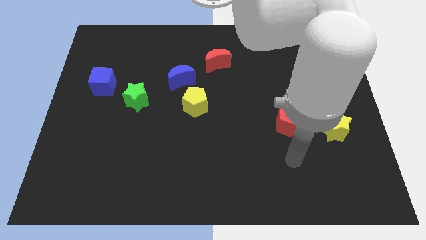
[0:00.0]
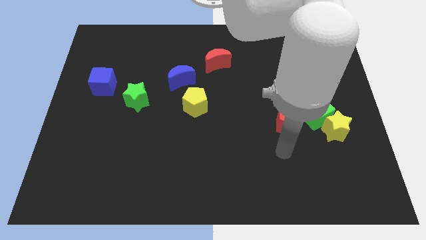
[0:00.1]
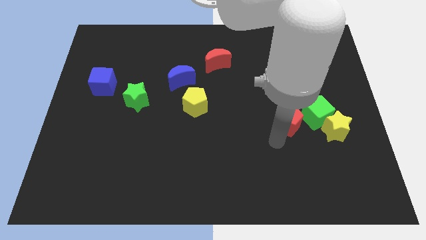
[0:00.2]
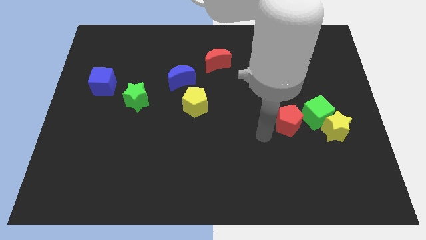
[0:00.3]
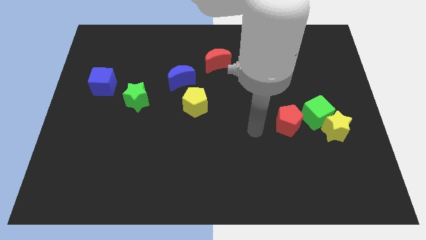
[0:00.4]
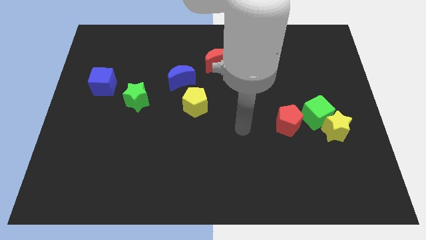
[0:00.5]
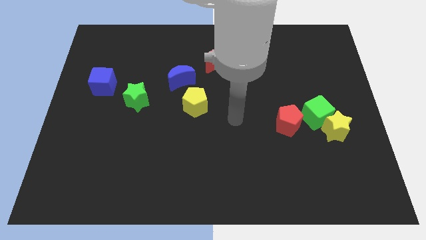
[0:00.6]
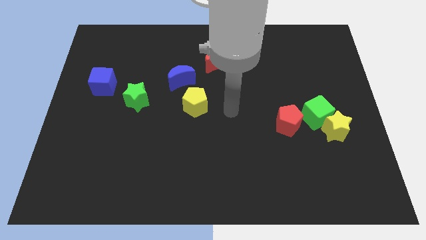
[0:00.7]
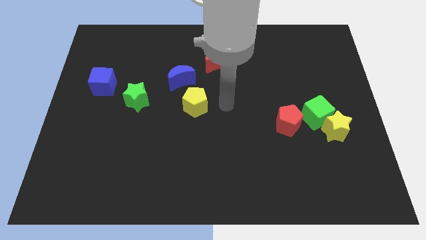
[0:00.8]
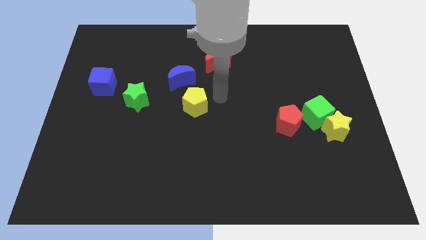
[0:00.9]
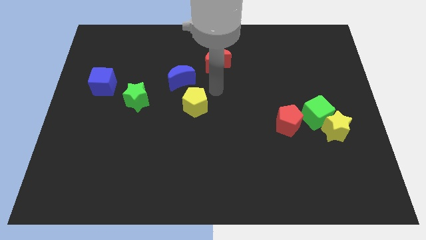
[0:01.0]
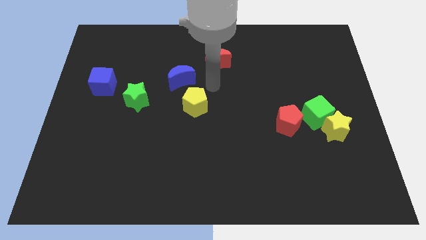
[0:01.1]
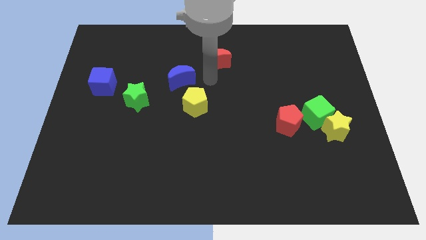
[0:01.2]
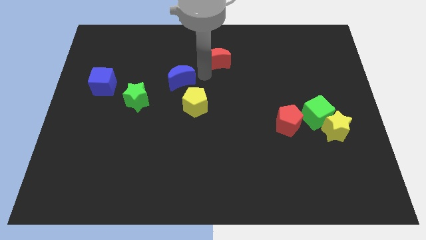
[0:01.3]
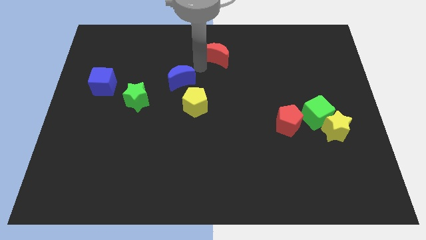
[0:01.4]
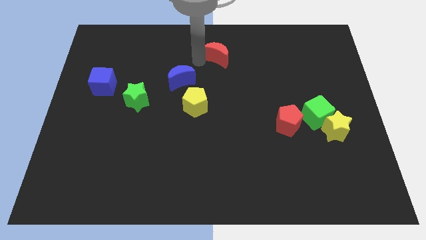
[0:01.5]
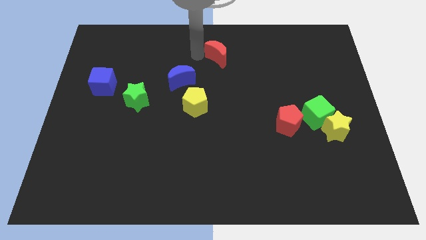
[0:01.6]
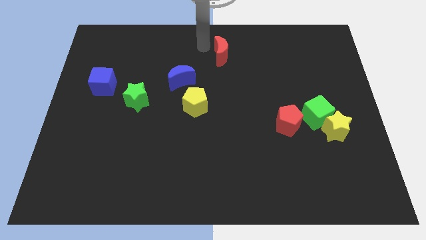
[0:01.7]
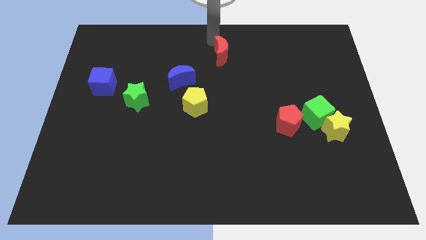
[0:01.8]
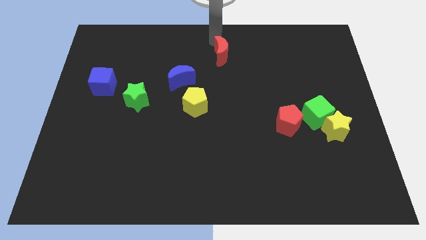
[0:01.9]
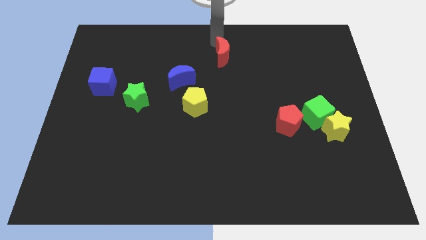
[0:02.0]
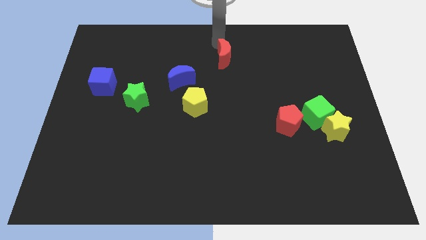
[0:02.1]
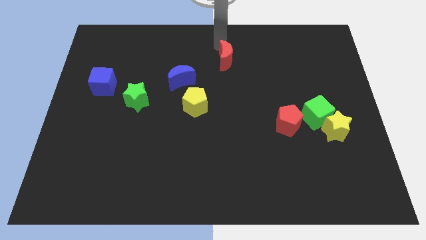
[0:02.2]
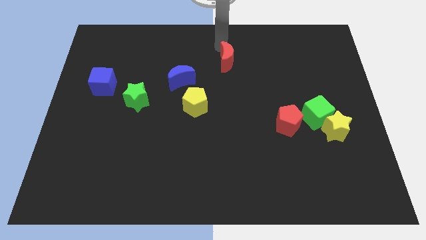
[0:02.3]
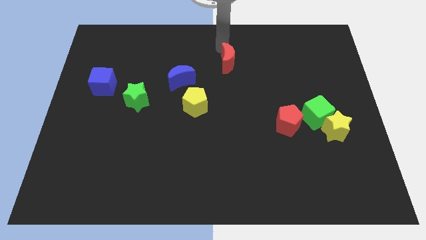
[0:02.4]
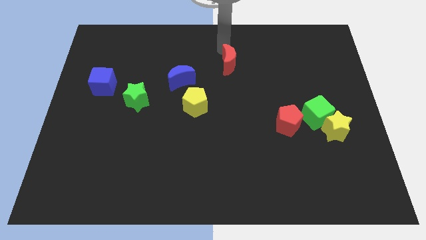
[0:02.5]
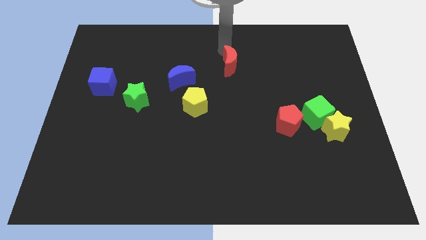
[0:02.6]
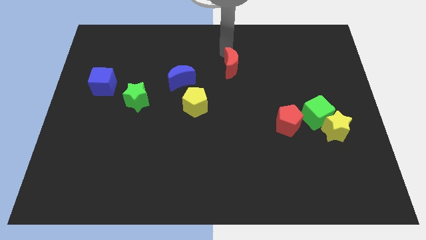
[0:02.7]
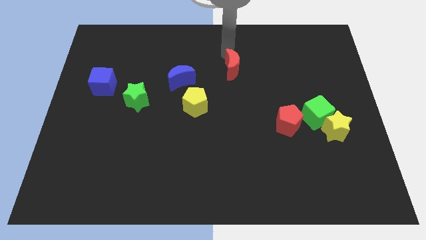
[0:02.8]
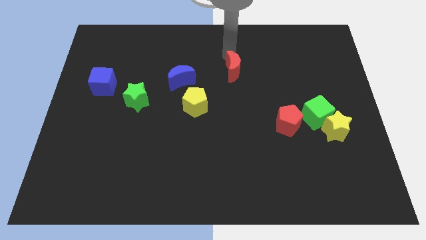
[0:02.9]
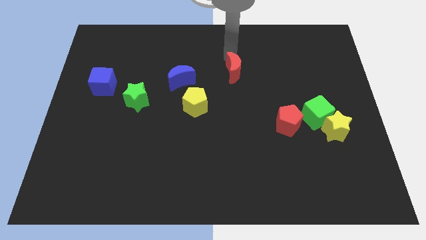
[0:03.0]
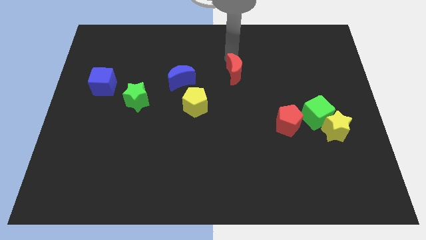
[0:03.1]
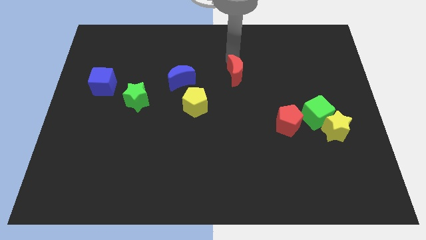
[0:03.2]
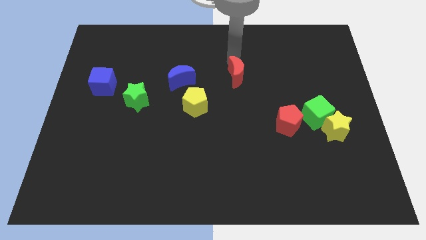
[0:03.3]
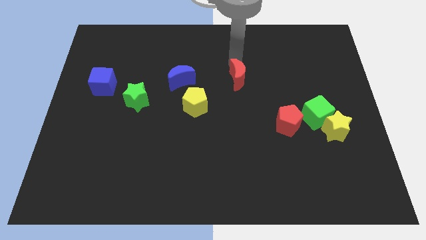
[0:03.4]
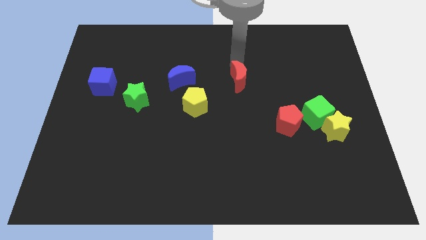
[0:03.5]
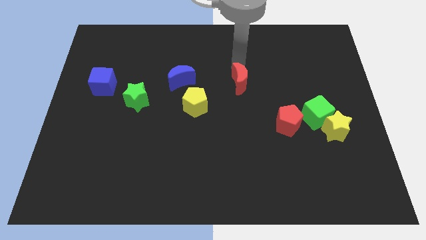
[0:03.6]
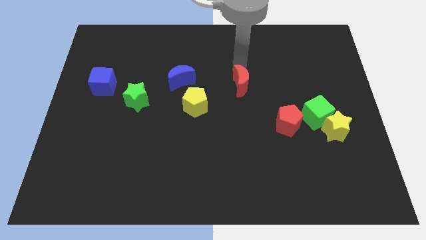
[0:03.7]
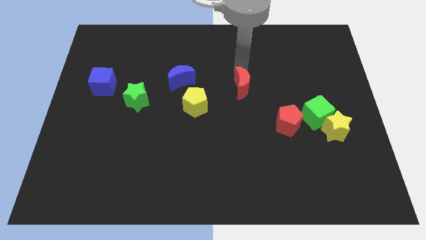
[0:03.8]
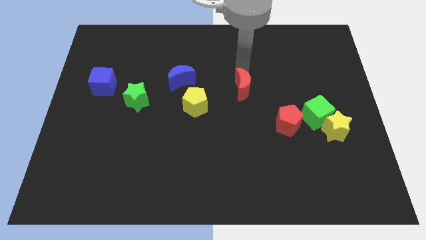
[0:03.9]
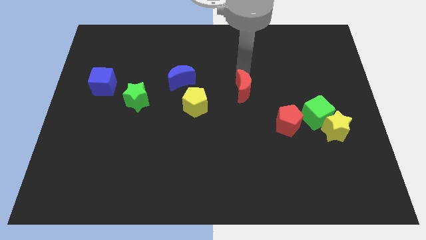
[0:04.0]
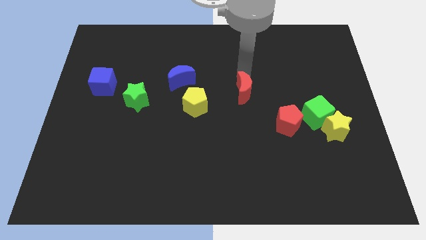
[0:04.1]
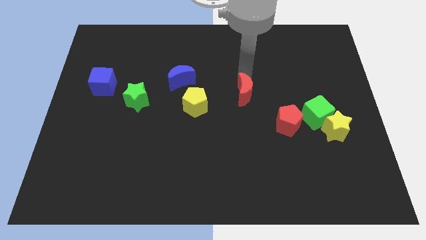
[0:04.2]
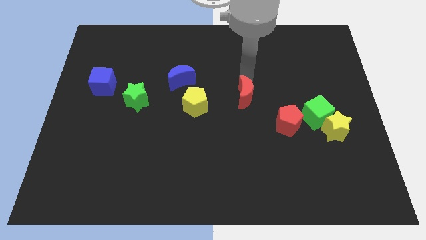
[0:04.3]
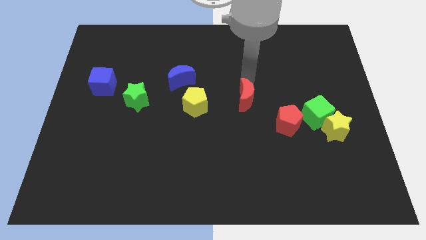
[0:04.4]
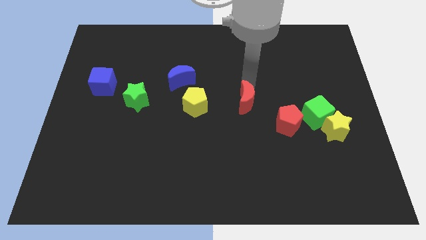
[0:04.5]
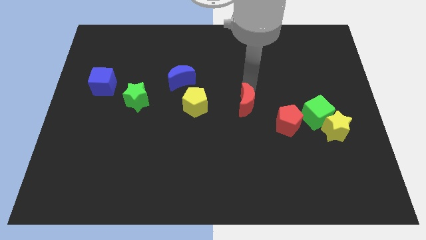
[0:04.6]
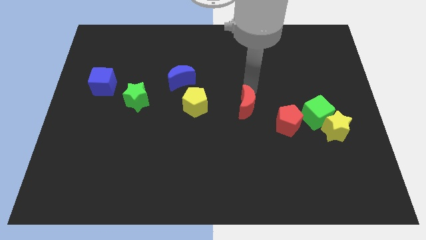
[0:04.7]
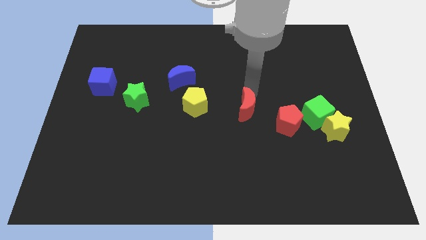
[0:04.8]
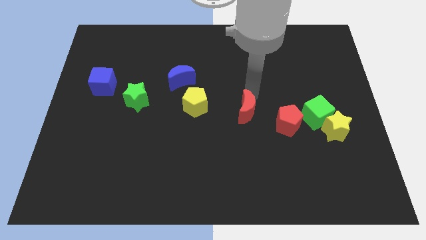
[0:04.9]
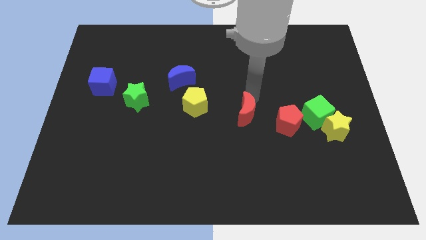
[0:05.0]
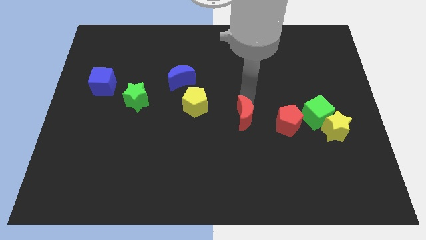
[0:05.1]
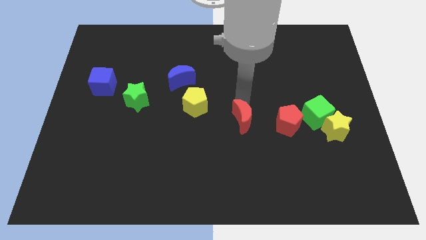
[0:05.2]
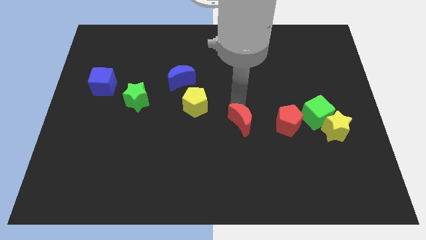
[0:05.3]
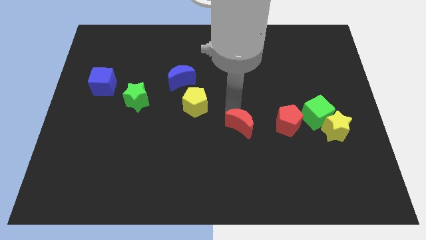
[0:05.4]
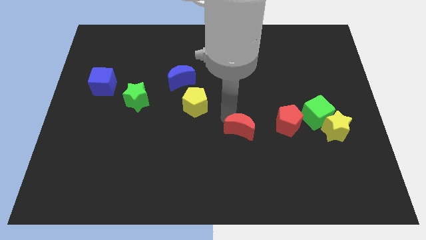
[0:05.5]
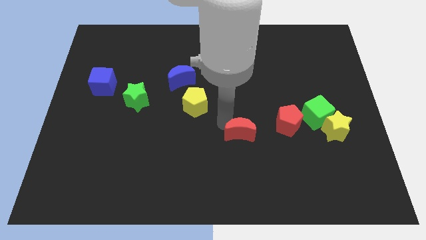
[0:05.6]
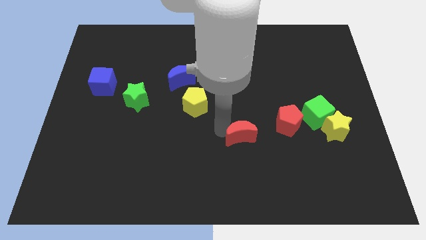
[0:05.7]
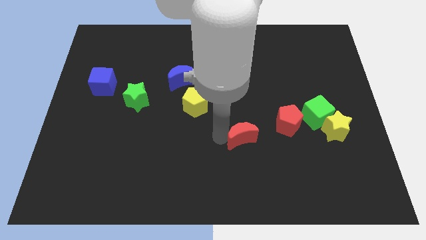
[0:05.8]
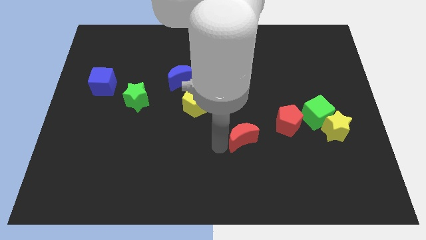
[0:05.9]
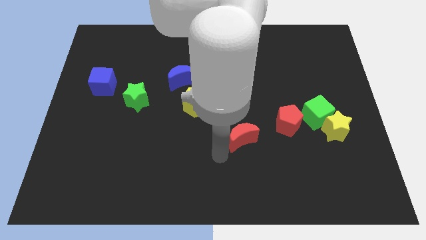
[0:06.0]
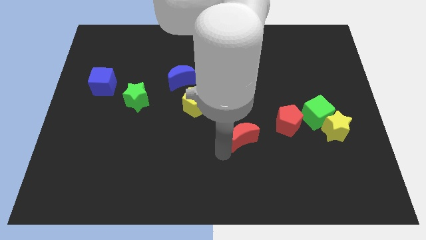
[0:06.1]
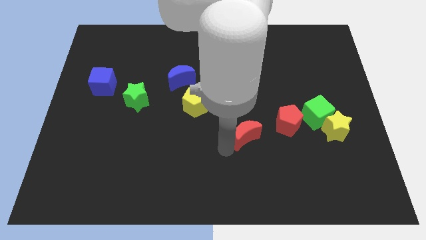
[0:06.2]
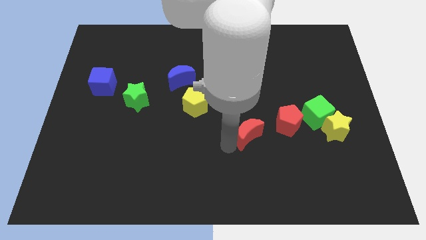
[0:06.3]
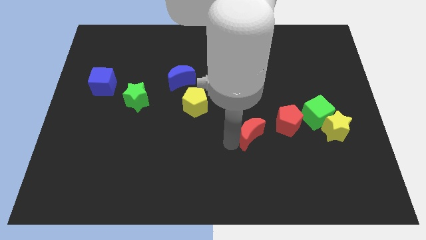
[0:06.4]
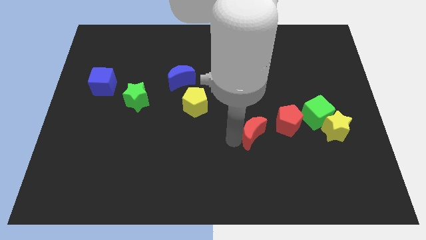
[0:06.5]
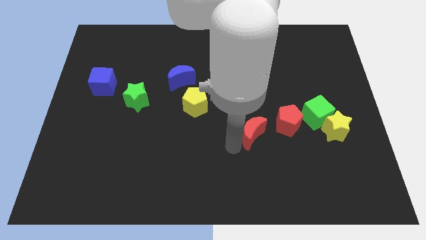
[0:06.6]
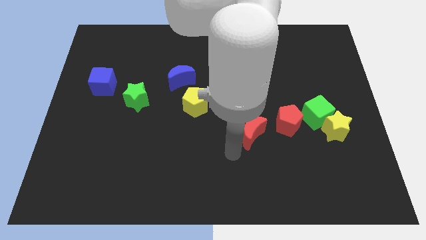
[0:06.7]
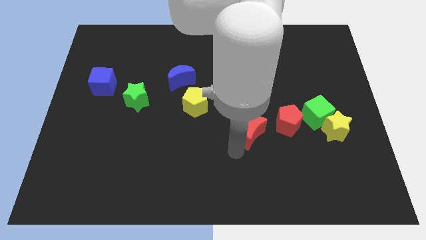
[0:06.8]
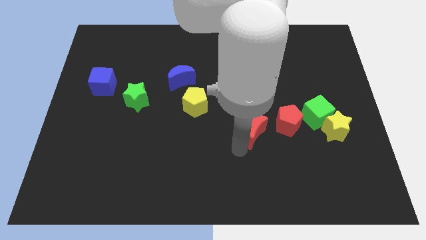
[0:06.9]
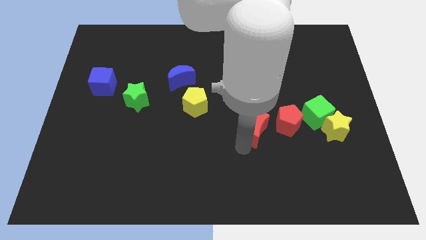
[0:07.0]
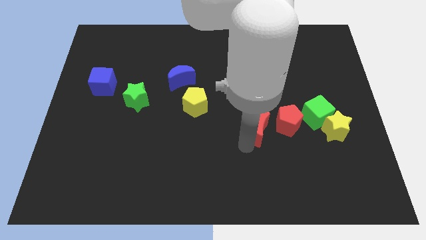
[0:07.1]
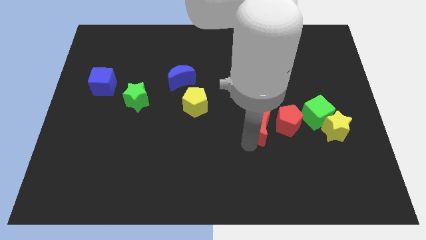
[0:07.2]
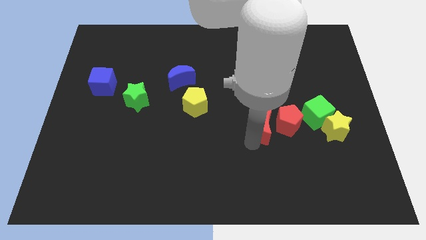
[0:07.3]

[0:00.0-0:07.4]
move the red moon towards the red pentagon
